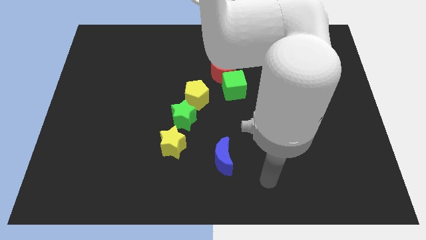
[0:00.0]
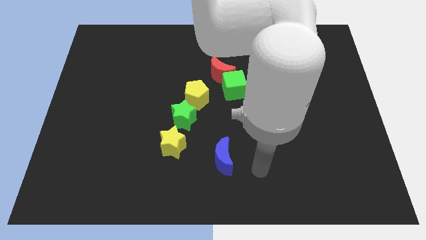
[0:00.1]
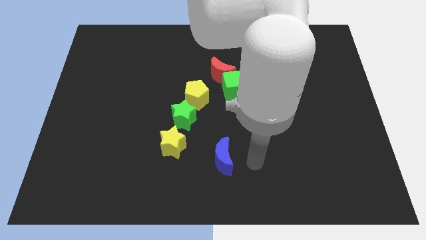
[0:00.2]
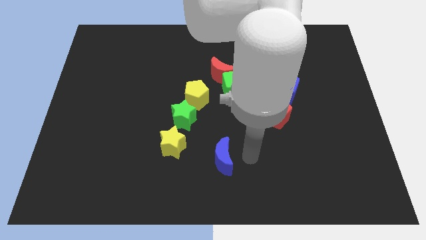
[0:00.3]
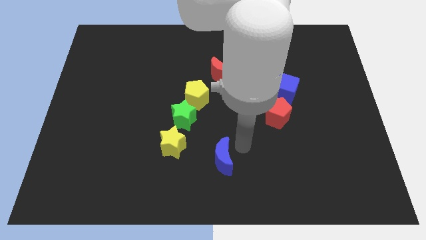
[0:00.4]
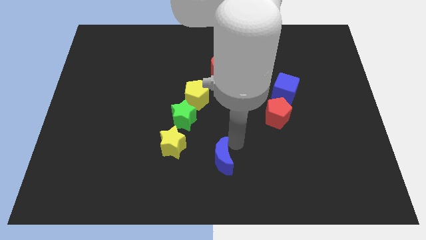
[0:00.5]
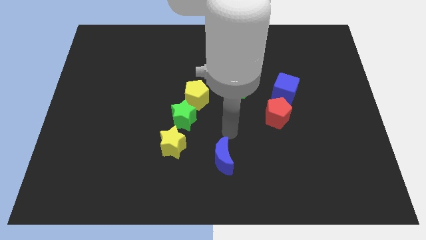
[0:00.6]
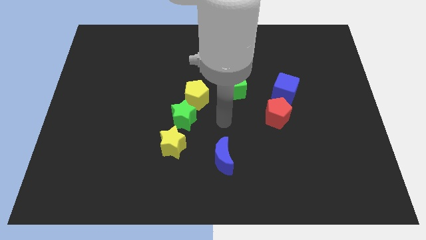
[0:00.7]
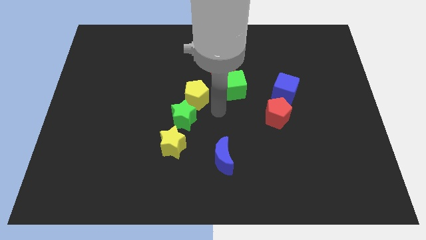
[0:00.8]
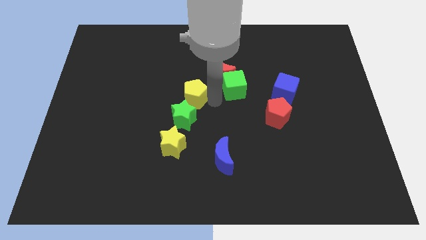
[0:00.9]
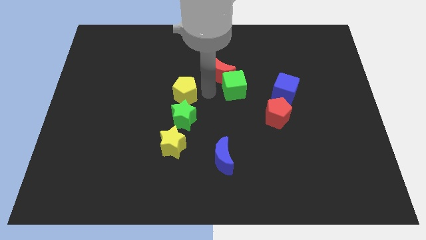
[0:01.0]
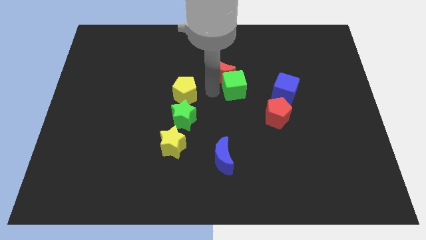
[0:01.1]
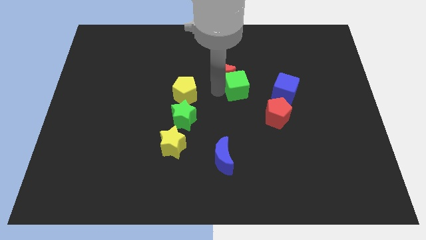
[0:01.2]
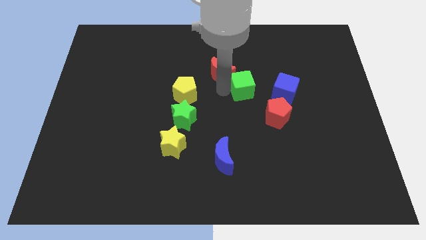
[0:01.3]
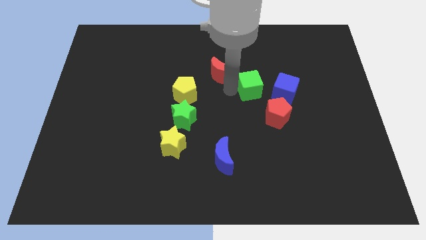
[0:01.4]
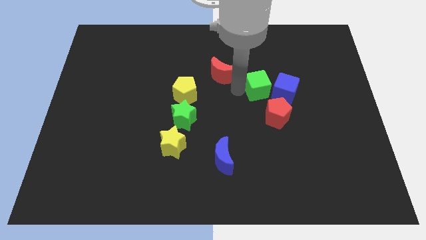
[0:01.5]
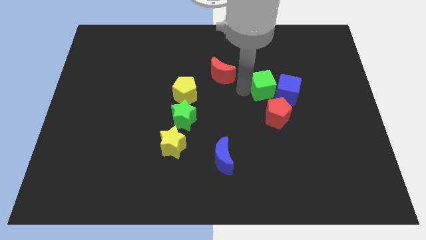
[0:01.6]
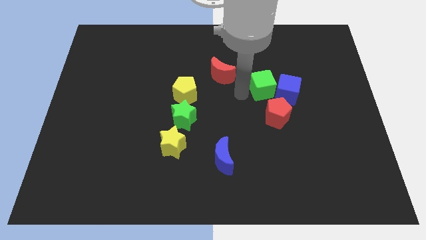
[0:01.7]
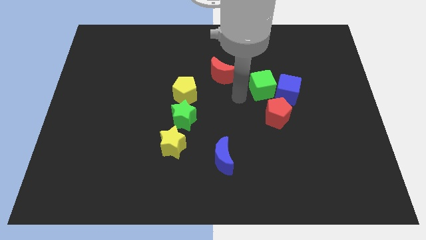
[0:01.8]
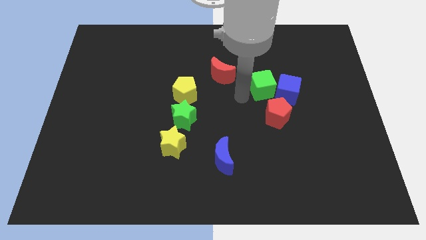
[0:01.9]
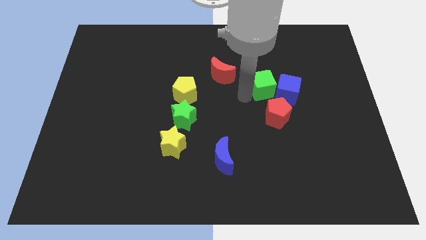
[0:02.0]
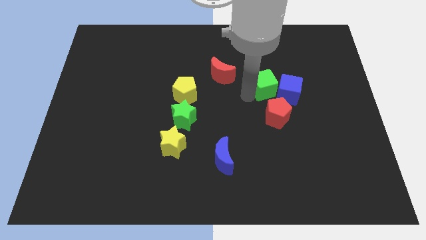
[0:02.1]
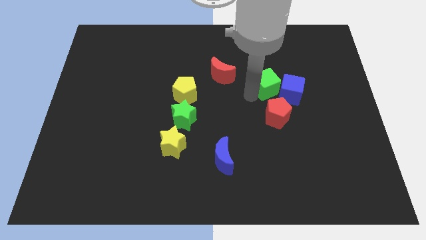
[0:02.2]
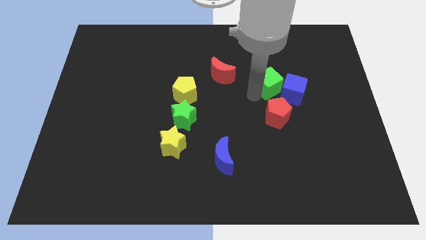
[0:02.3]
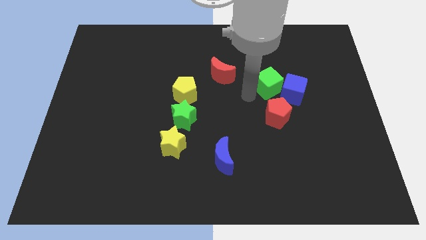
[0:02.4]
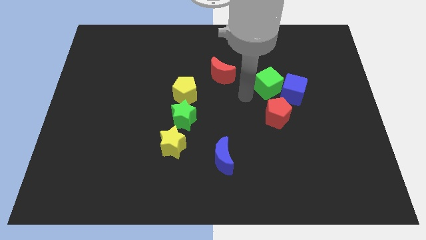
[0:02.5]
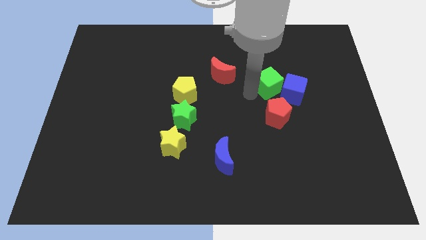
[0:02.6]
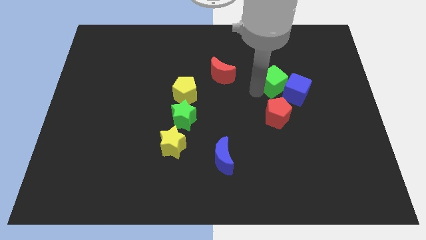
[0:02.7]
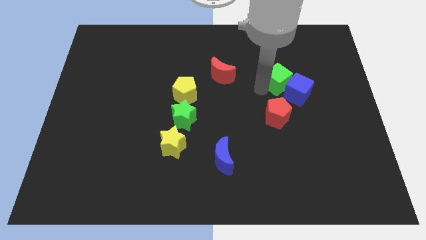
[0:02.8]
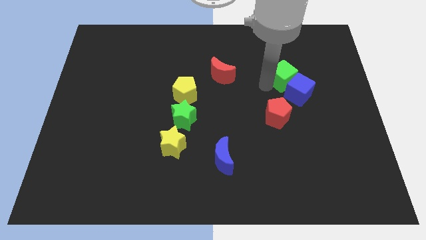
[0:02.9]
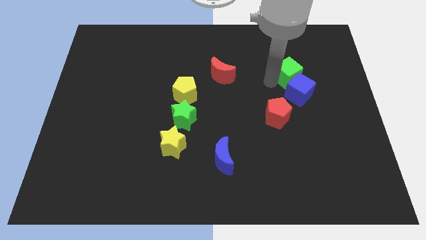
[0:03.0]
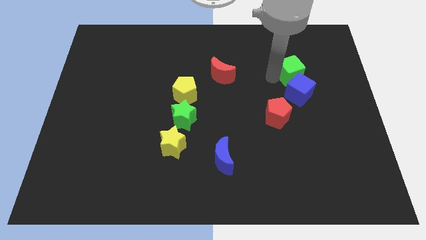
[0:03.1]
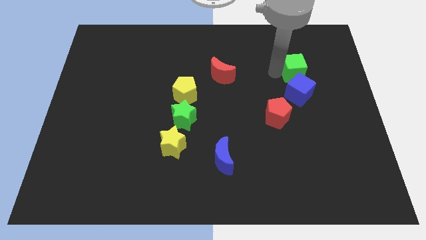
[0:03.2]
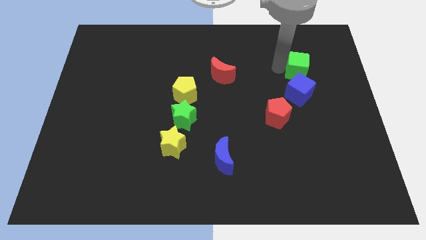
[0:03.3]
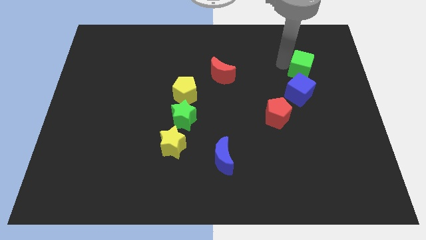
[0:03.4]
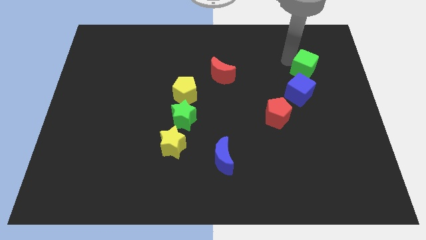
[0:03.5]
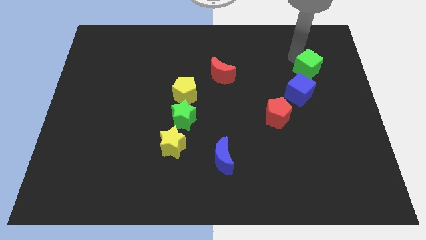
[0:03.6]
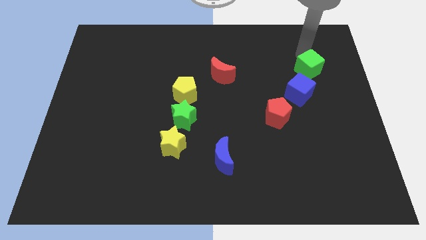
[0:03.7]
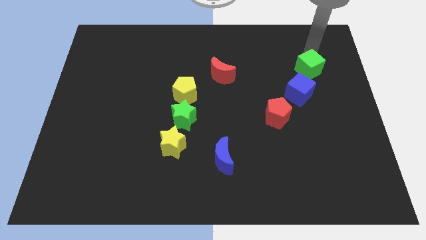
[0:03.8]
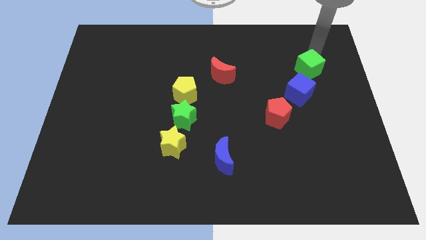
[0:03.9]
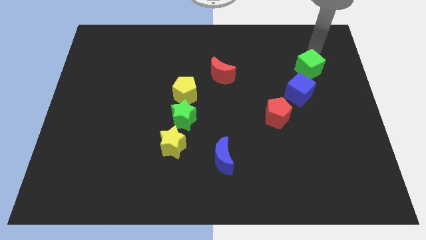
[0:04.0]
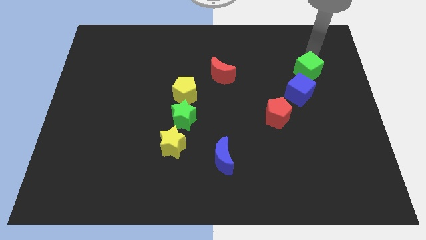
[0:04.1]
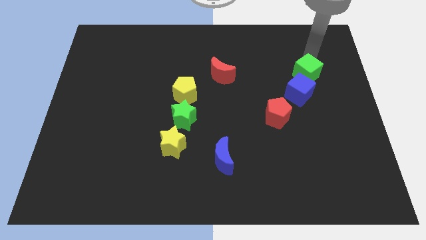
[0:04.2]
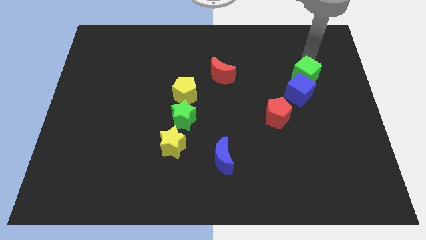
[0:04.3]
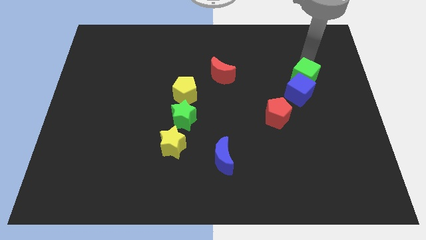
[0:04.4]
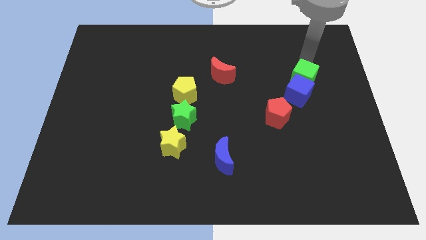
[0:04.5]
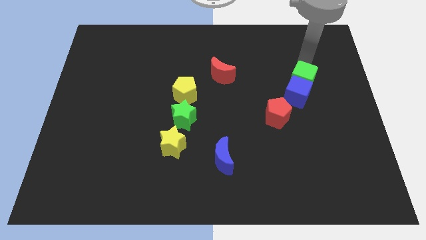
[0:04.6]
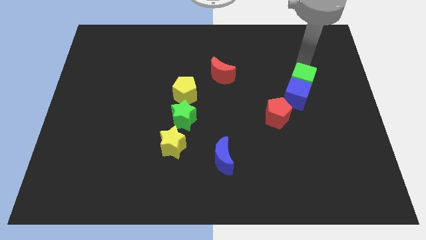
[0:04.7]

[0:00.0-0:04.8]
push the green cube diagonally up and to the right of the red pentagon

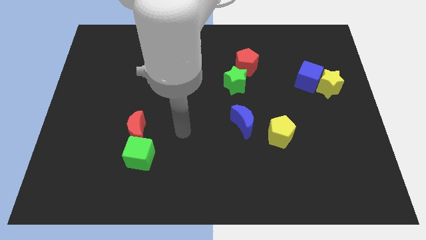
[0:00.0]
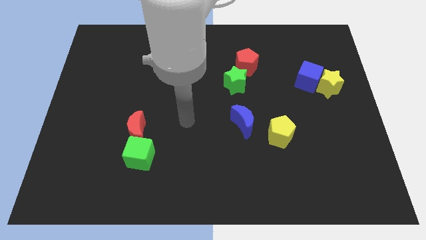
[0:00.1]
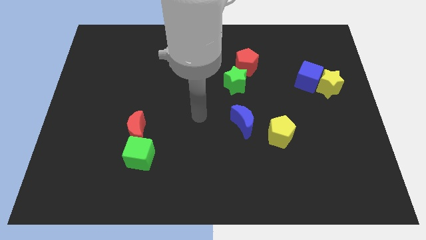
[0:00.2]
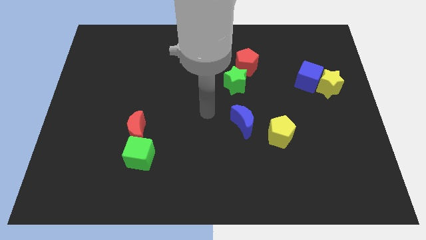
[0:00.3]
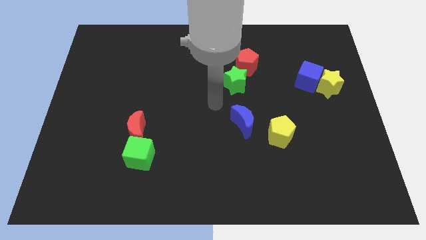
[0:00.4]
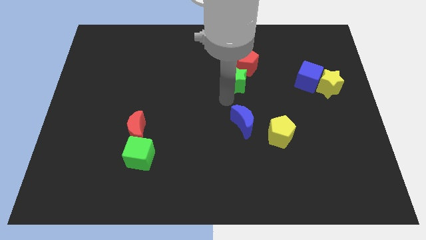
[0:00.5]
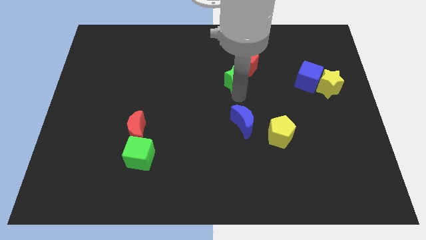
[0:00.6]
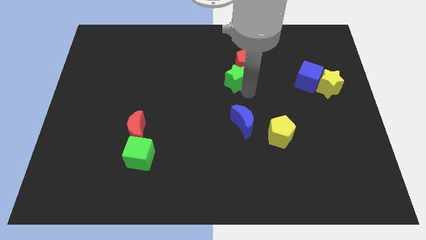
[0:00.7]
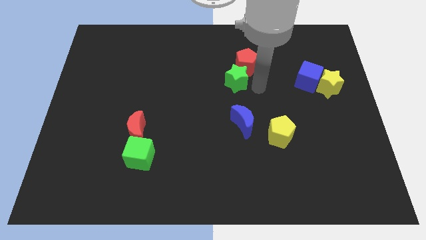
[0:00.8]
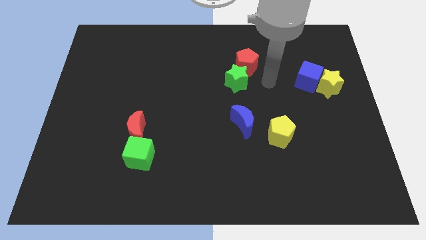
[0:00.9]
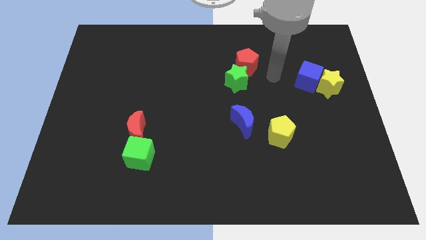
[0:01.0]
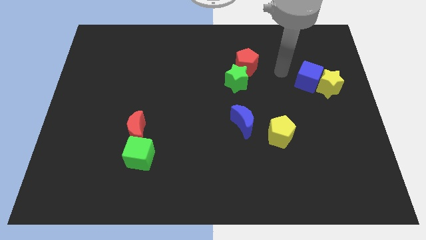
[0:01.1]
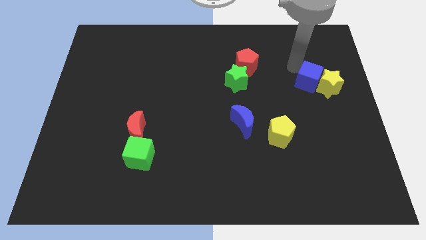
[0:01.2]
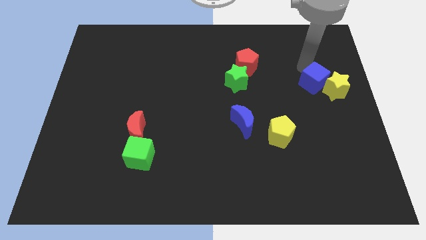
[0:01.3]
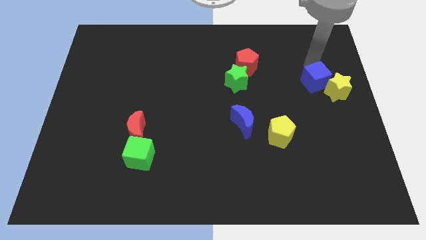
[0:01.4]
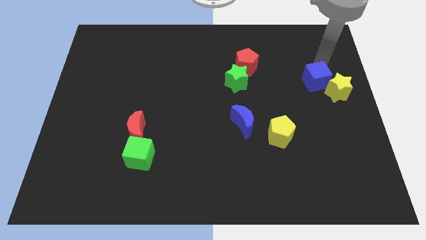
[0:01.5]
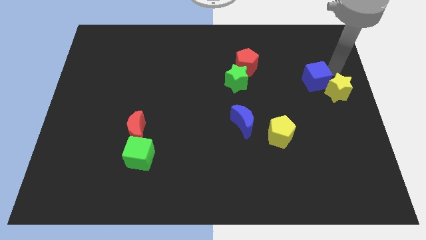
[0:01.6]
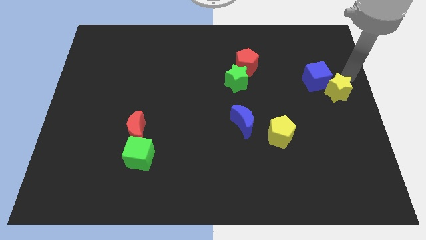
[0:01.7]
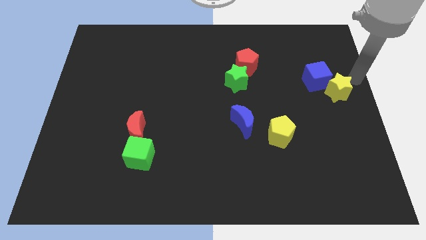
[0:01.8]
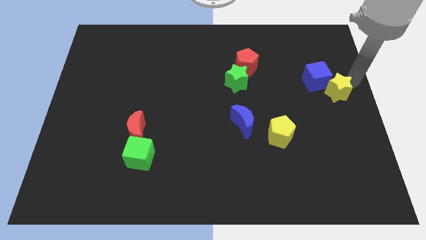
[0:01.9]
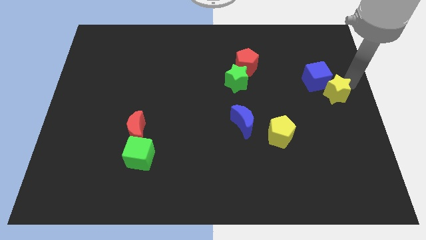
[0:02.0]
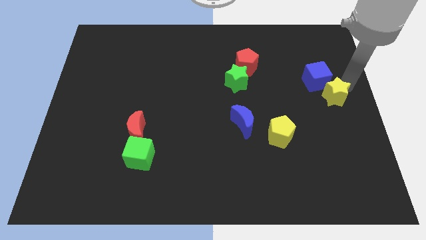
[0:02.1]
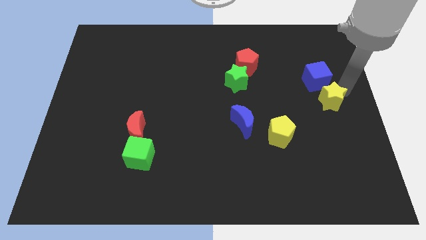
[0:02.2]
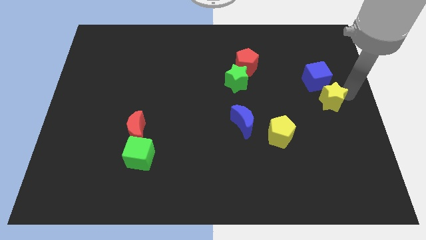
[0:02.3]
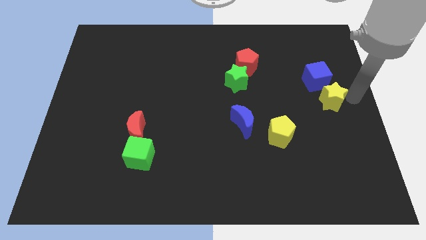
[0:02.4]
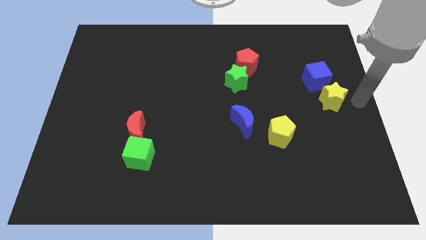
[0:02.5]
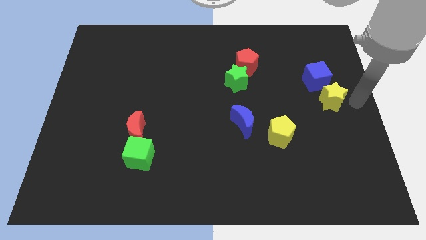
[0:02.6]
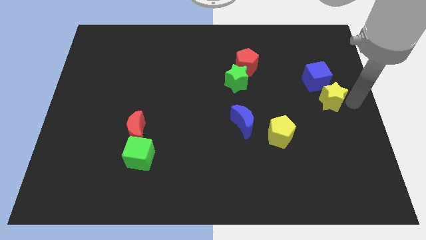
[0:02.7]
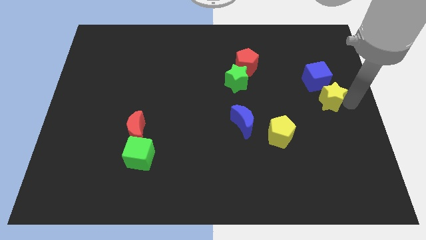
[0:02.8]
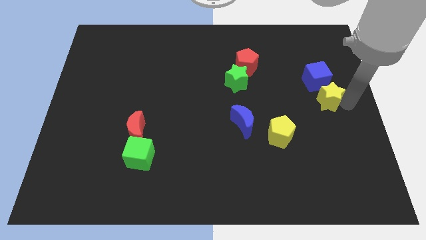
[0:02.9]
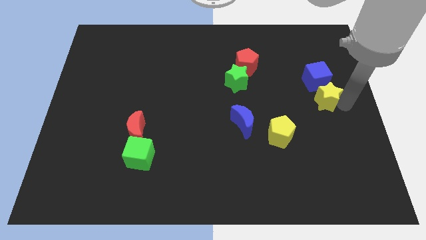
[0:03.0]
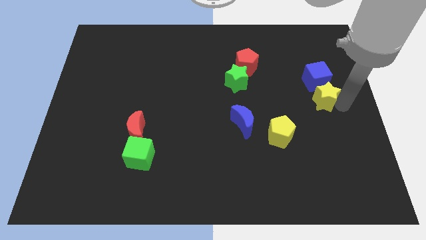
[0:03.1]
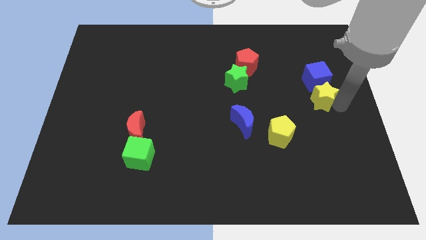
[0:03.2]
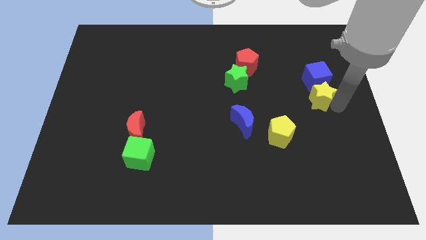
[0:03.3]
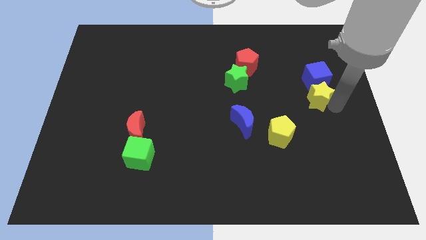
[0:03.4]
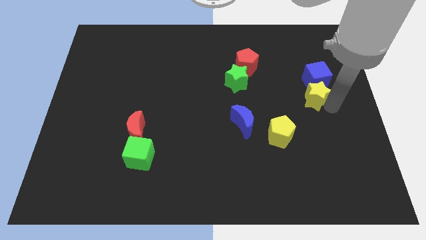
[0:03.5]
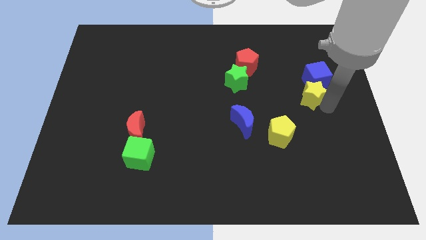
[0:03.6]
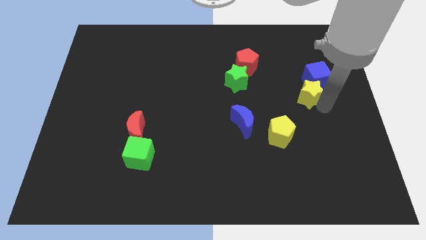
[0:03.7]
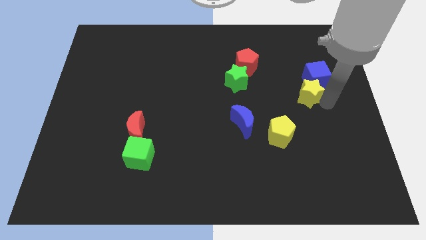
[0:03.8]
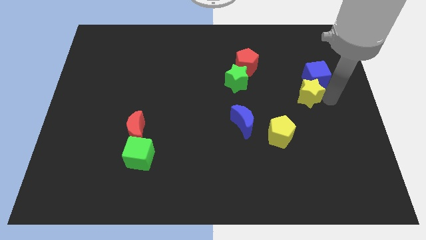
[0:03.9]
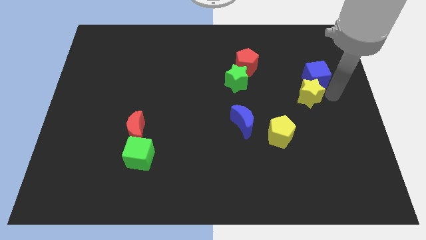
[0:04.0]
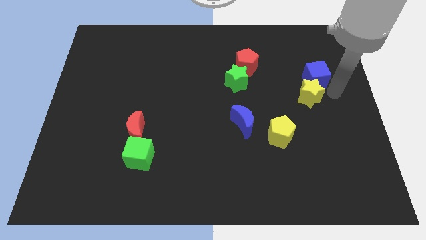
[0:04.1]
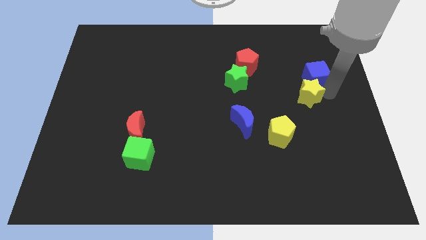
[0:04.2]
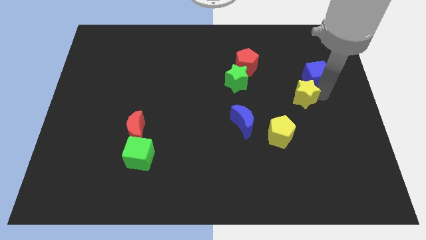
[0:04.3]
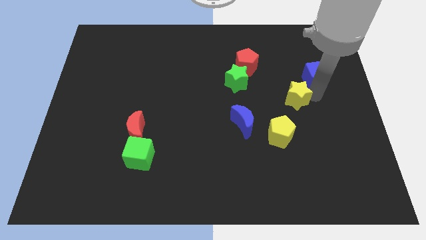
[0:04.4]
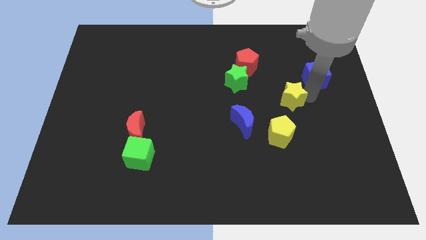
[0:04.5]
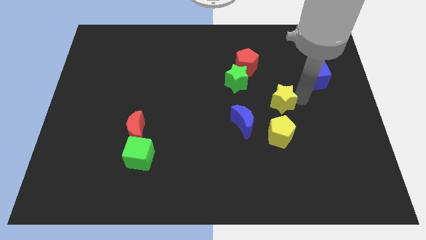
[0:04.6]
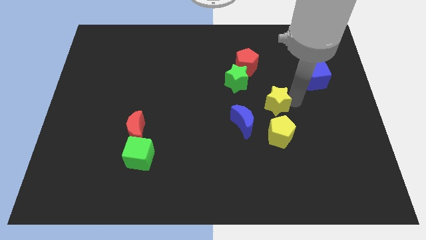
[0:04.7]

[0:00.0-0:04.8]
slide the yellow star diagonally down and to the right of the green star
